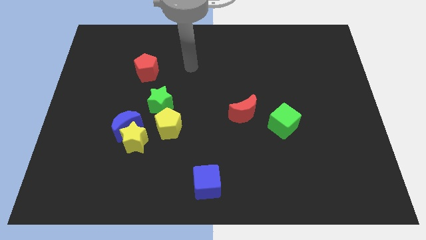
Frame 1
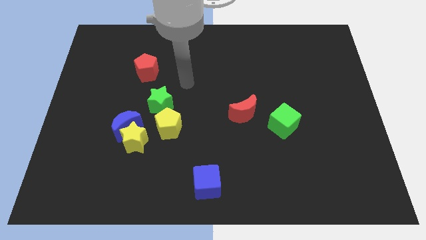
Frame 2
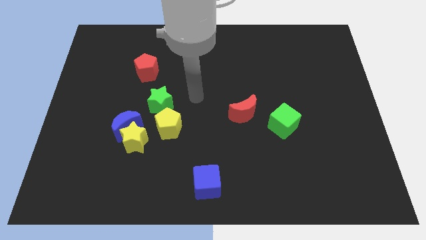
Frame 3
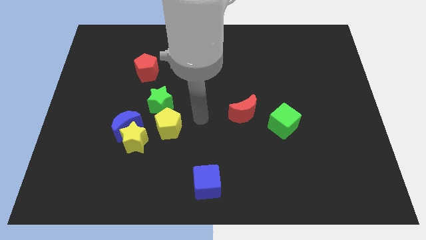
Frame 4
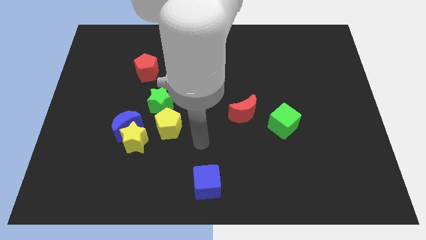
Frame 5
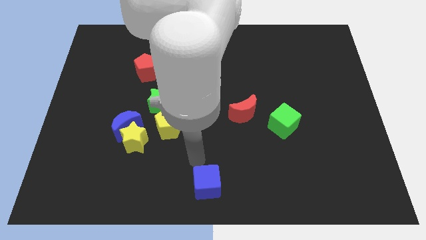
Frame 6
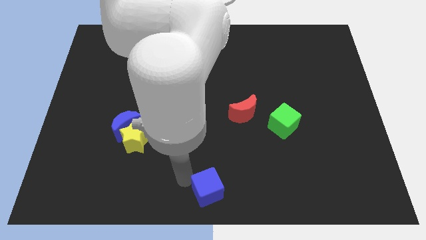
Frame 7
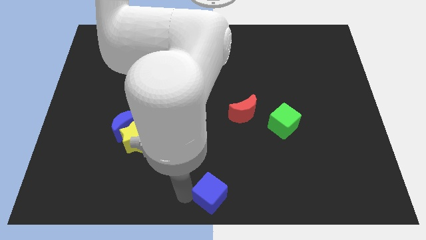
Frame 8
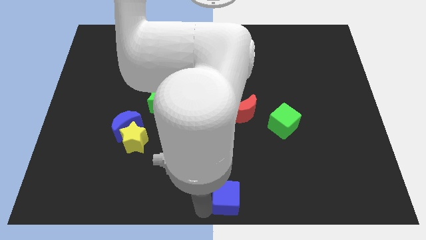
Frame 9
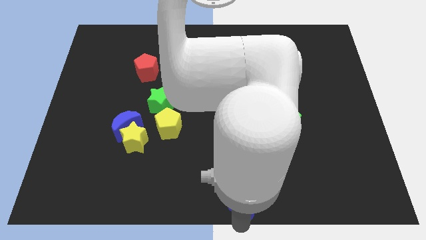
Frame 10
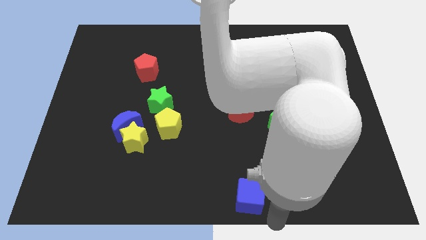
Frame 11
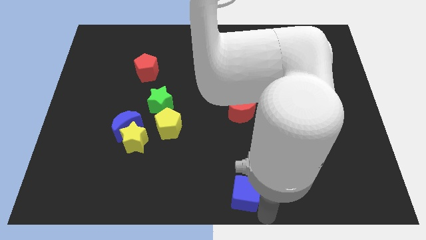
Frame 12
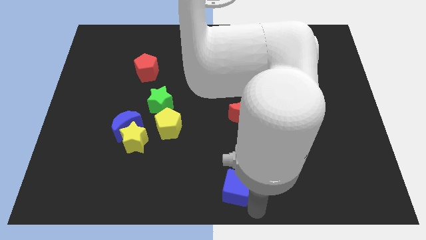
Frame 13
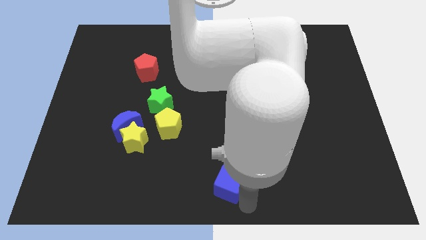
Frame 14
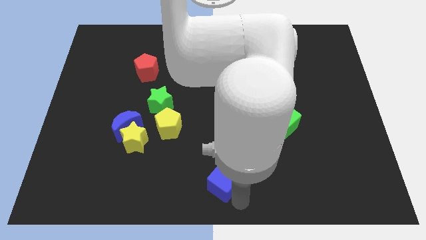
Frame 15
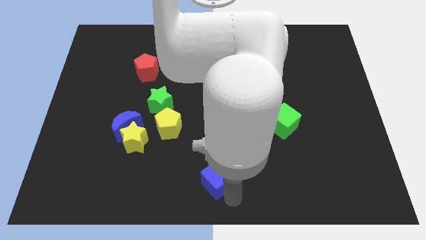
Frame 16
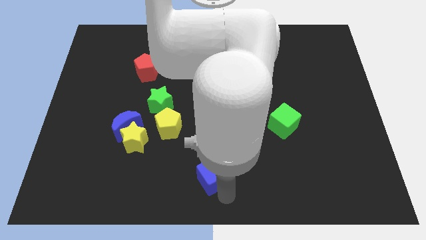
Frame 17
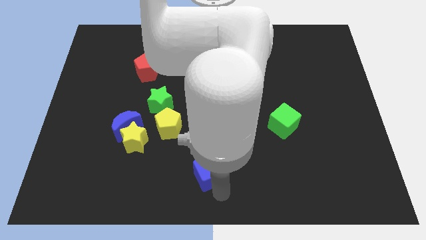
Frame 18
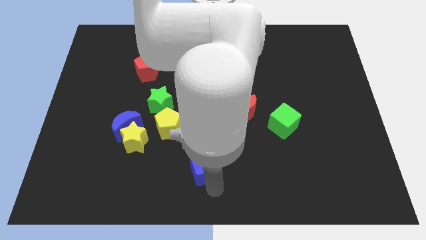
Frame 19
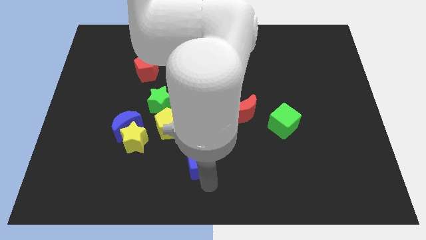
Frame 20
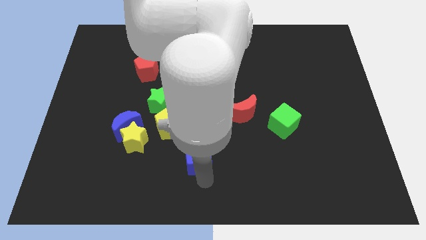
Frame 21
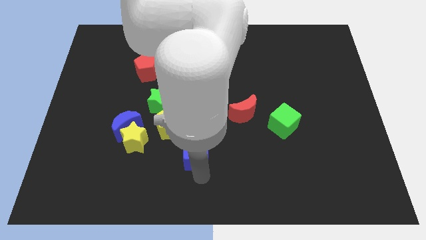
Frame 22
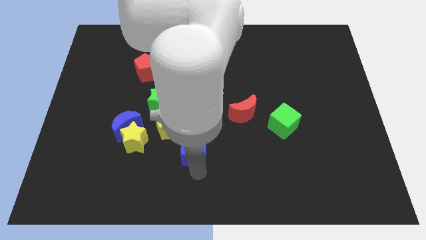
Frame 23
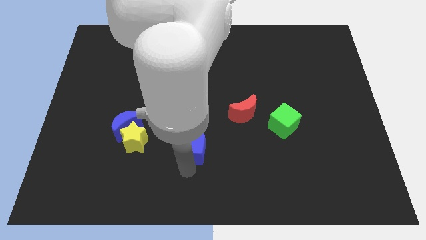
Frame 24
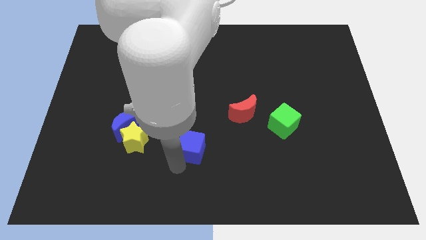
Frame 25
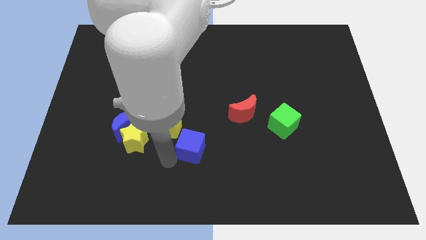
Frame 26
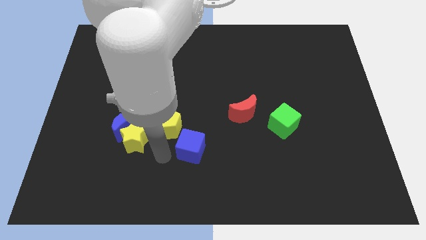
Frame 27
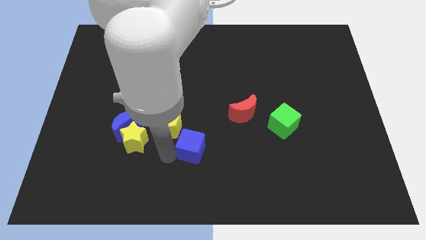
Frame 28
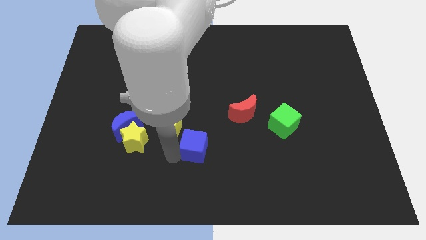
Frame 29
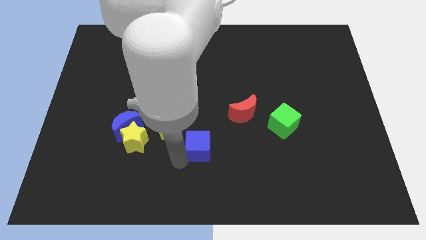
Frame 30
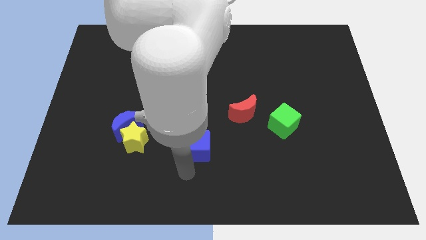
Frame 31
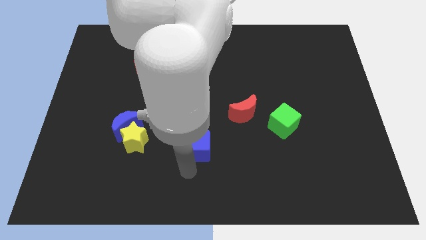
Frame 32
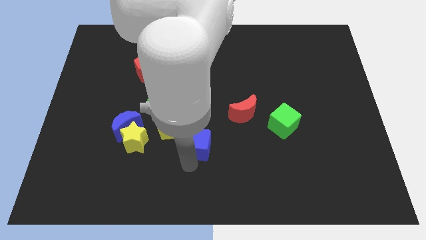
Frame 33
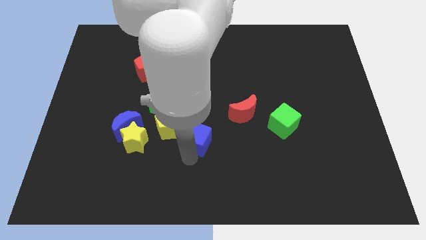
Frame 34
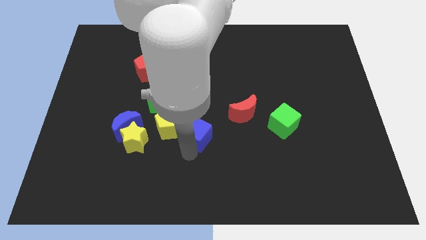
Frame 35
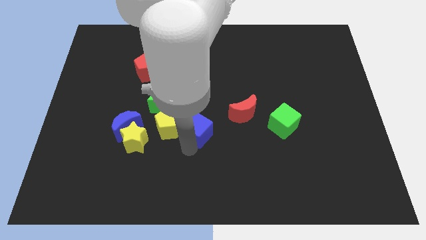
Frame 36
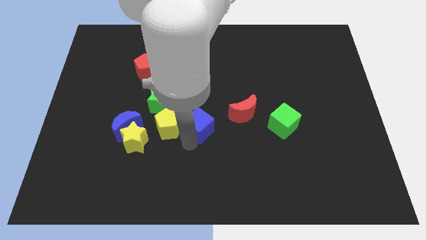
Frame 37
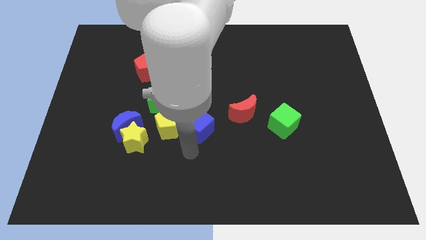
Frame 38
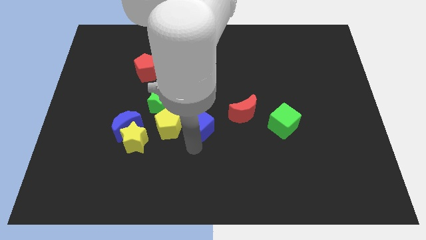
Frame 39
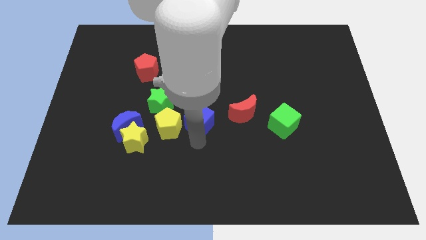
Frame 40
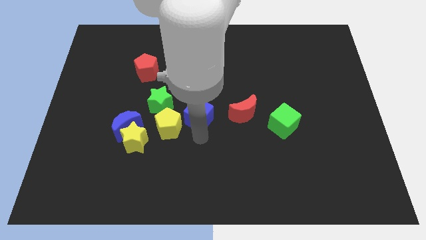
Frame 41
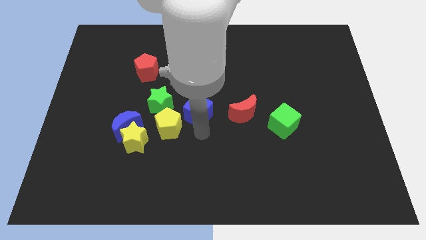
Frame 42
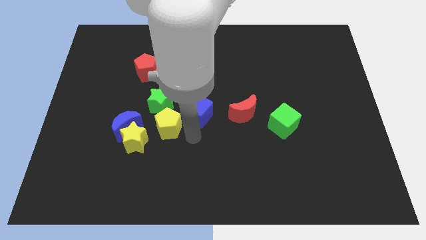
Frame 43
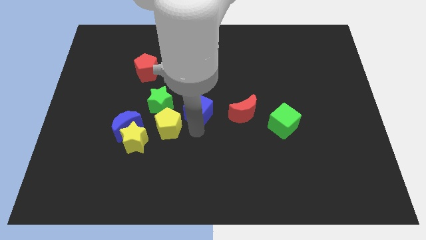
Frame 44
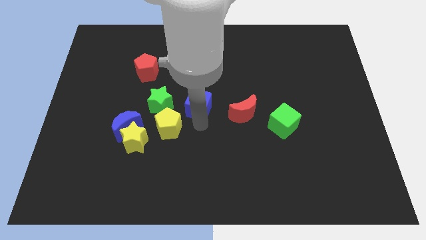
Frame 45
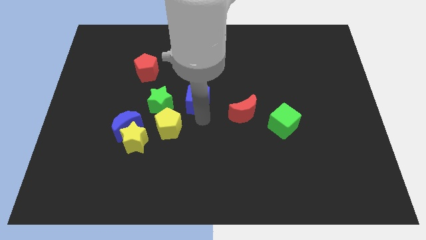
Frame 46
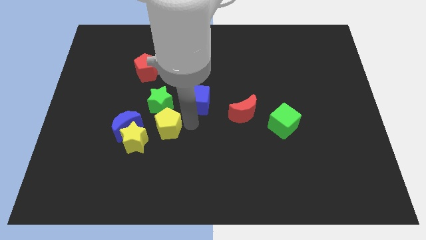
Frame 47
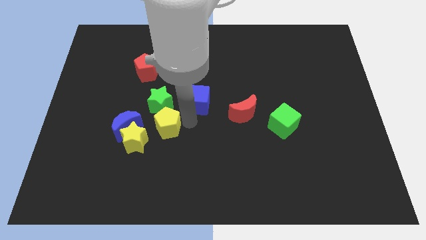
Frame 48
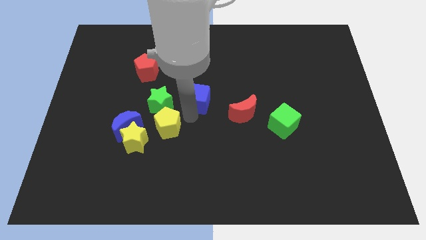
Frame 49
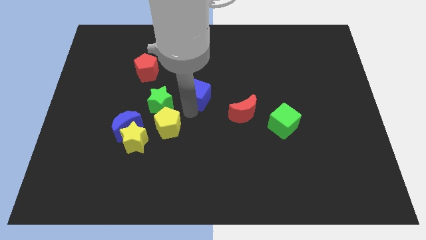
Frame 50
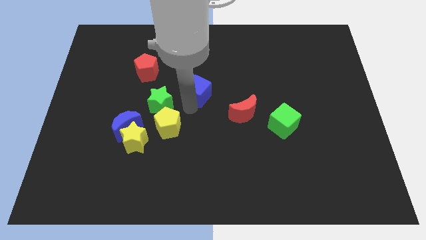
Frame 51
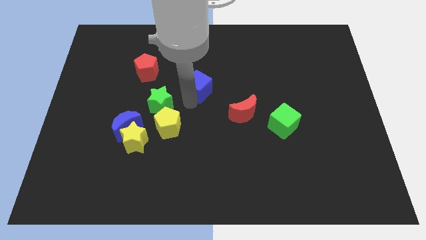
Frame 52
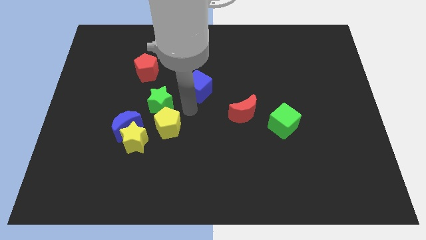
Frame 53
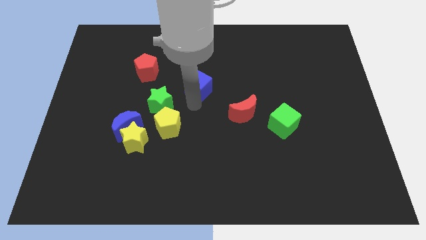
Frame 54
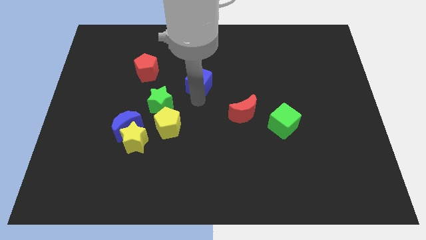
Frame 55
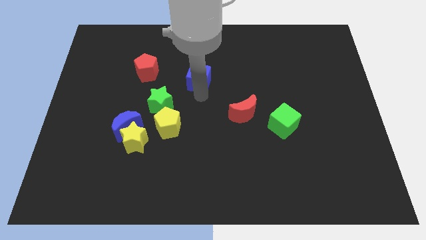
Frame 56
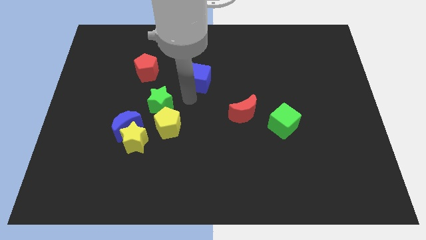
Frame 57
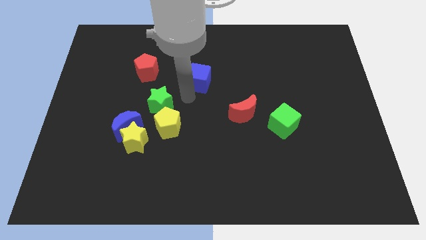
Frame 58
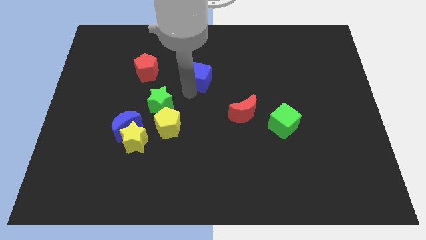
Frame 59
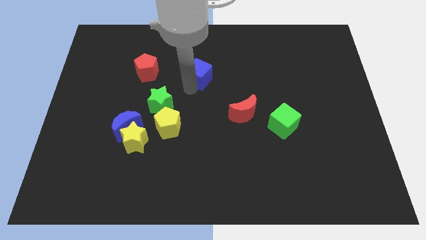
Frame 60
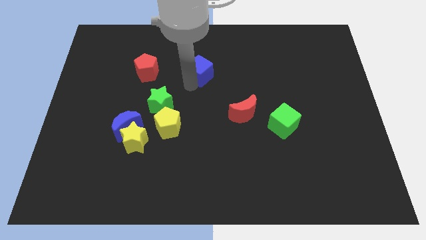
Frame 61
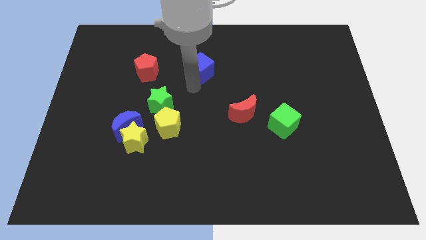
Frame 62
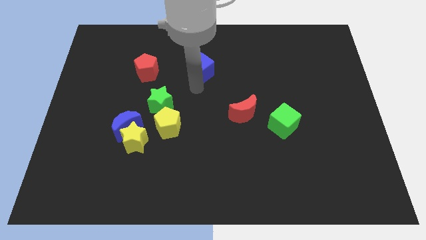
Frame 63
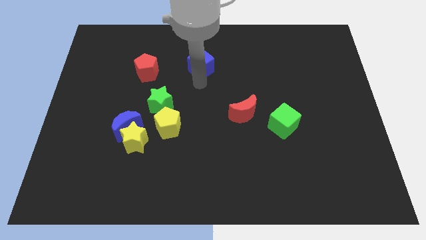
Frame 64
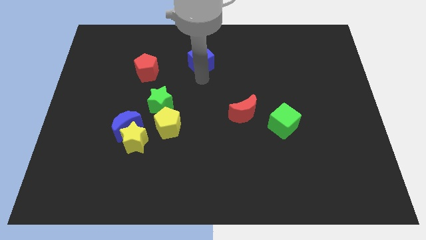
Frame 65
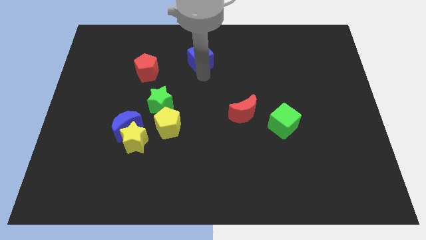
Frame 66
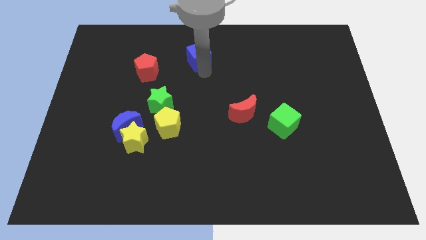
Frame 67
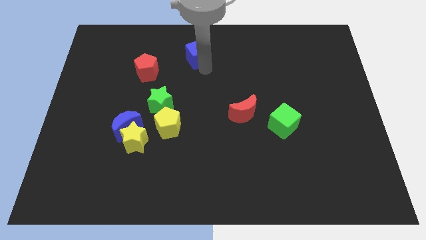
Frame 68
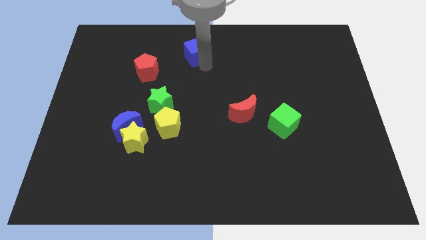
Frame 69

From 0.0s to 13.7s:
move the blue cube to the towards your base
